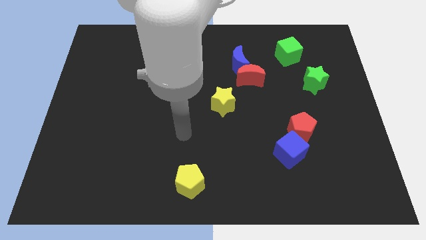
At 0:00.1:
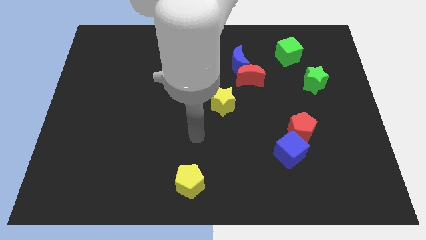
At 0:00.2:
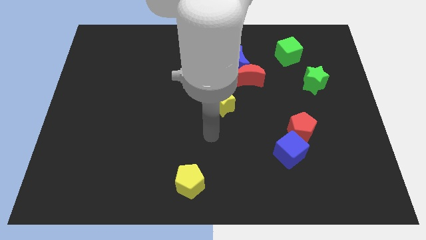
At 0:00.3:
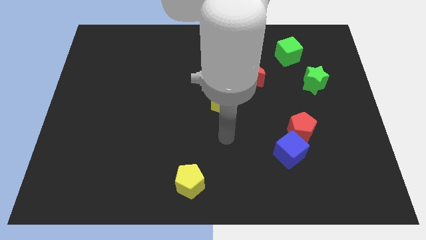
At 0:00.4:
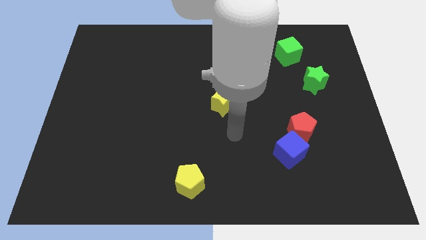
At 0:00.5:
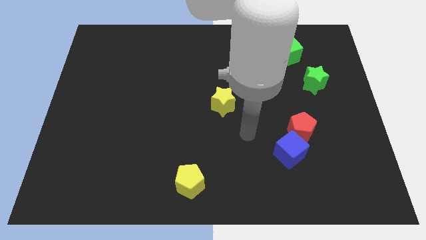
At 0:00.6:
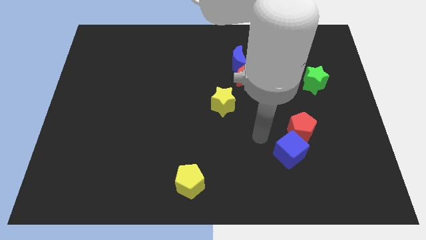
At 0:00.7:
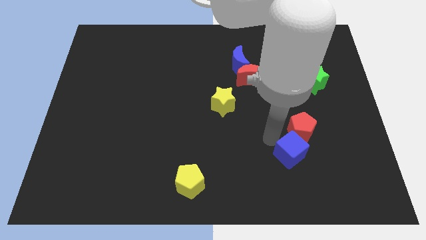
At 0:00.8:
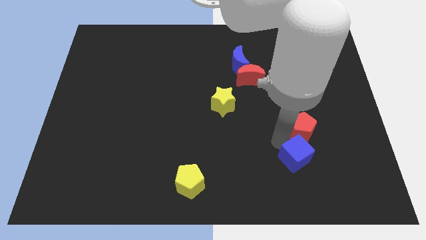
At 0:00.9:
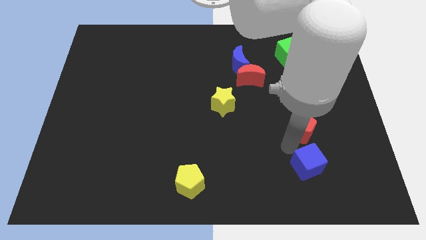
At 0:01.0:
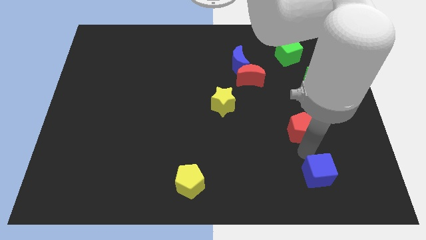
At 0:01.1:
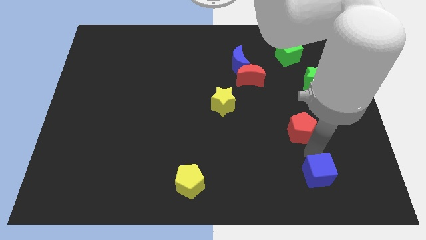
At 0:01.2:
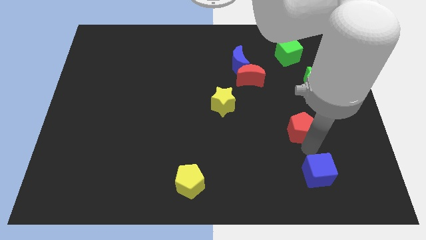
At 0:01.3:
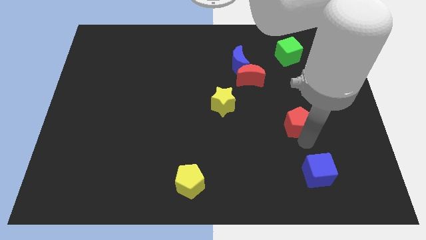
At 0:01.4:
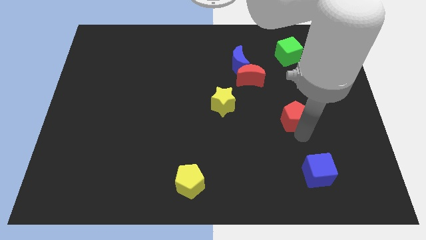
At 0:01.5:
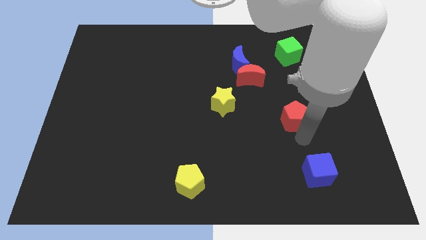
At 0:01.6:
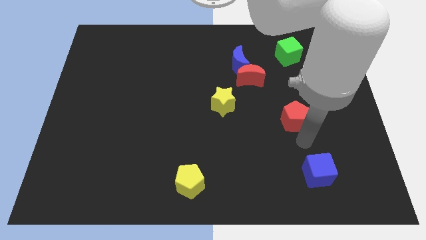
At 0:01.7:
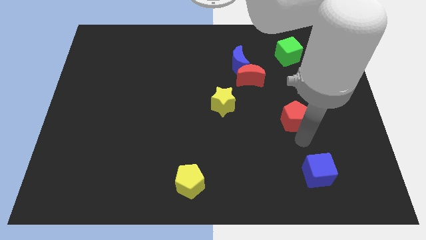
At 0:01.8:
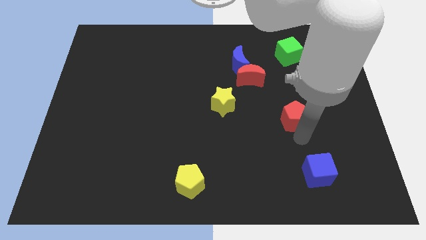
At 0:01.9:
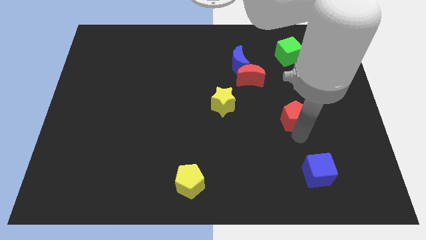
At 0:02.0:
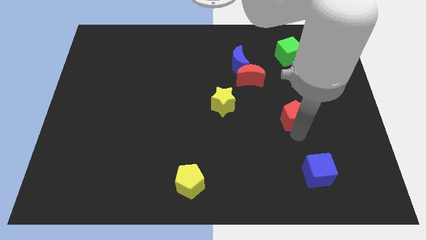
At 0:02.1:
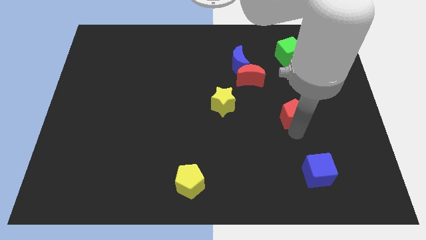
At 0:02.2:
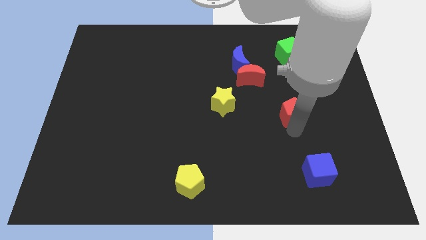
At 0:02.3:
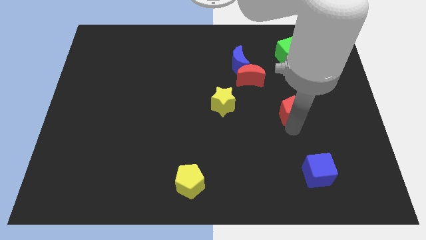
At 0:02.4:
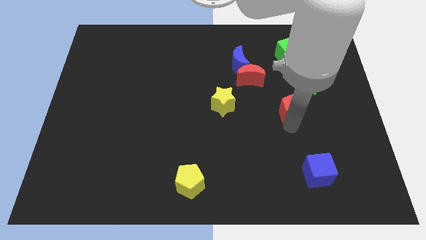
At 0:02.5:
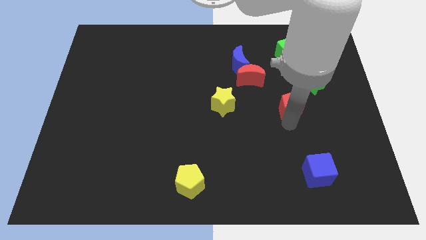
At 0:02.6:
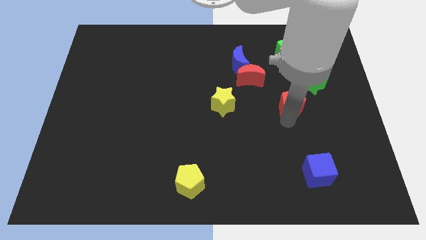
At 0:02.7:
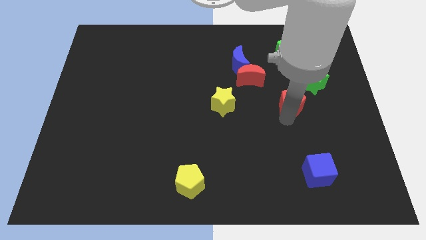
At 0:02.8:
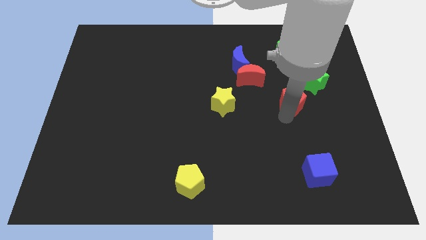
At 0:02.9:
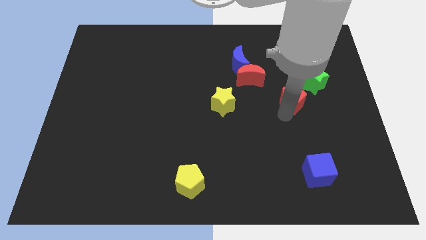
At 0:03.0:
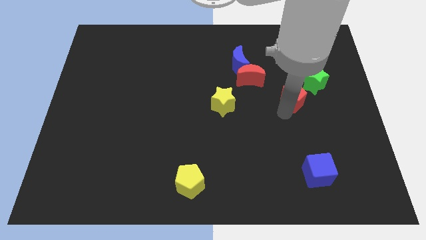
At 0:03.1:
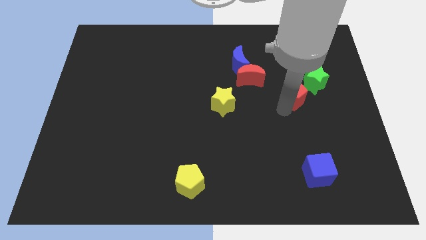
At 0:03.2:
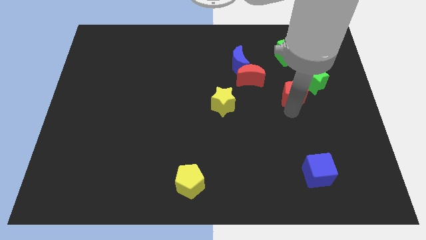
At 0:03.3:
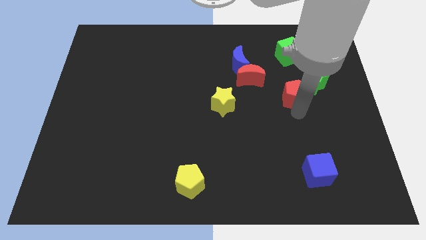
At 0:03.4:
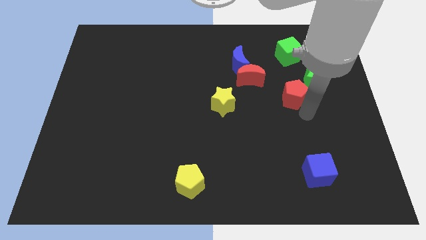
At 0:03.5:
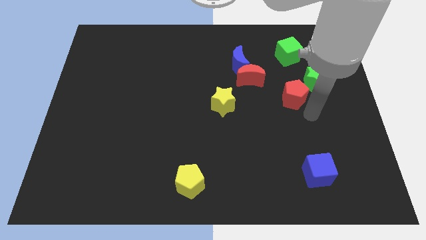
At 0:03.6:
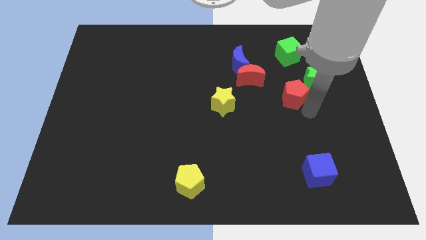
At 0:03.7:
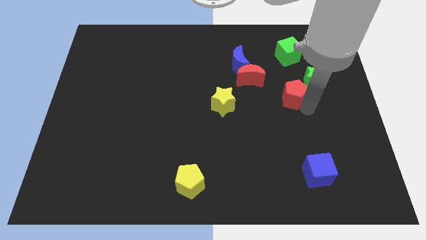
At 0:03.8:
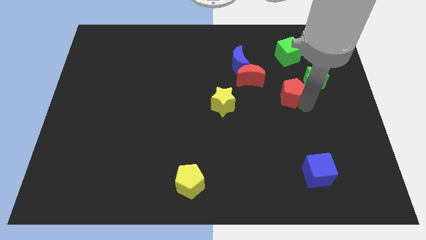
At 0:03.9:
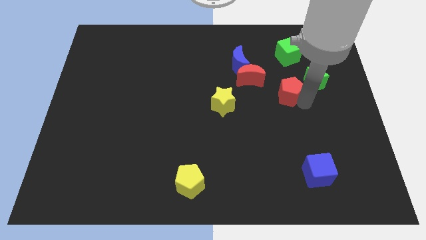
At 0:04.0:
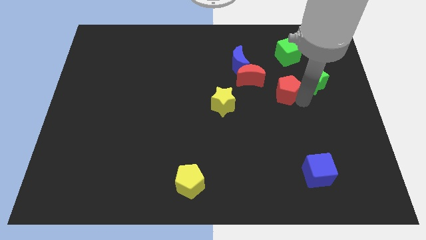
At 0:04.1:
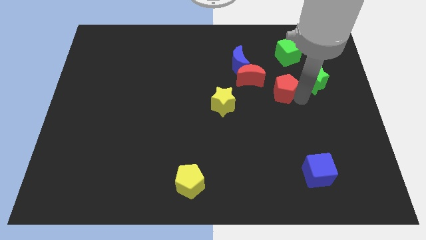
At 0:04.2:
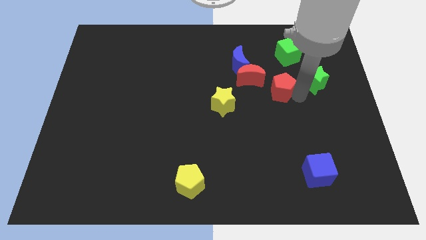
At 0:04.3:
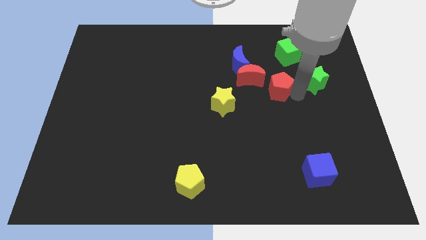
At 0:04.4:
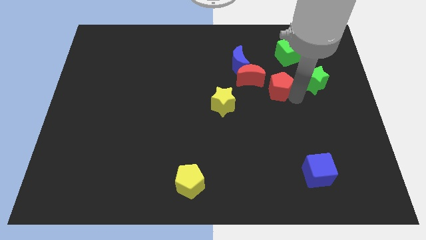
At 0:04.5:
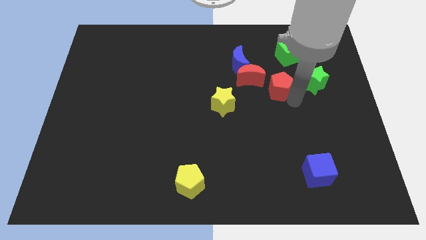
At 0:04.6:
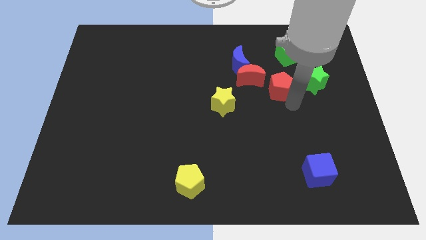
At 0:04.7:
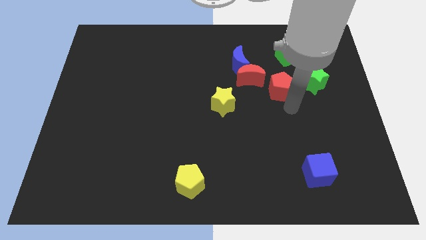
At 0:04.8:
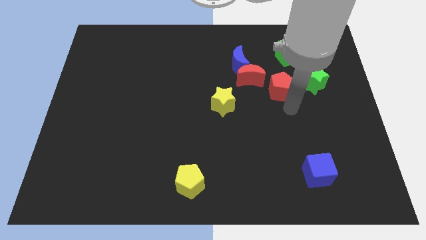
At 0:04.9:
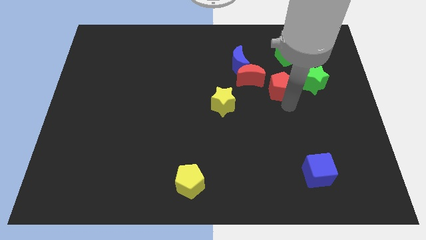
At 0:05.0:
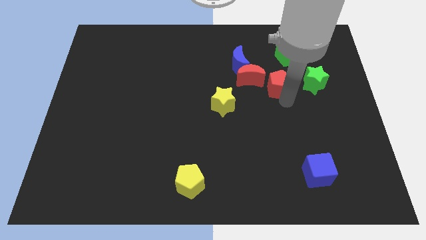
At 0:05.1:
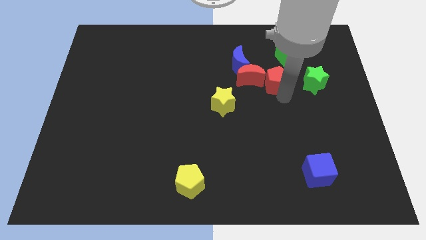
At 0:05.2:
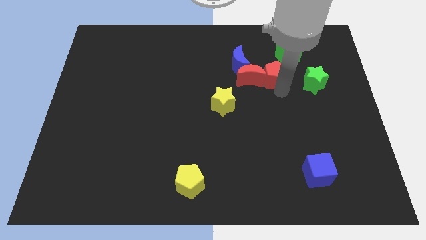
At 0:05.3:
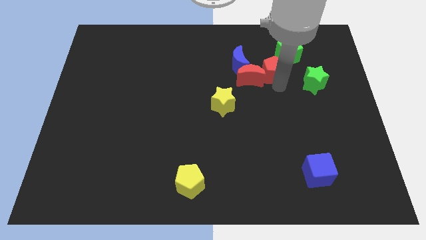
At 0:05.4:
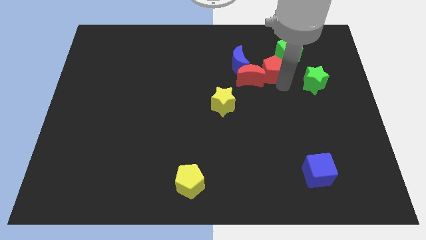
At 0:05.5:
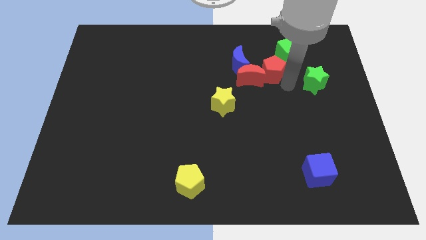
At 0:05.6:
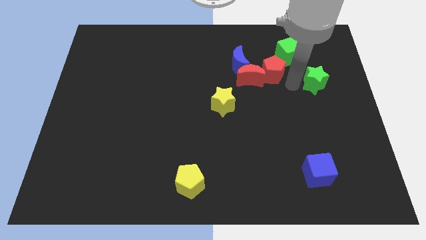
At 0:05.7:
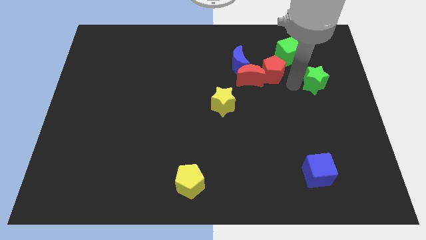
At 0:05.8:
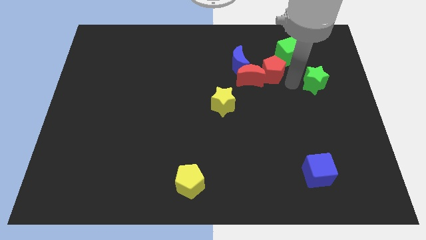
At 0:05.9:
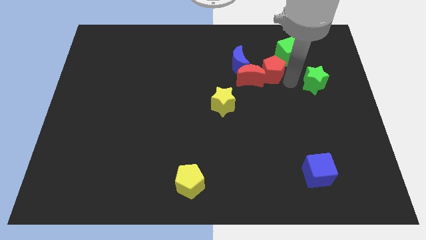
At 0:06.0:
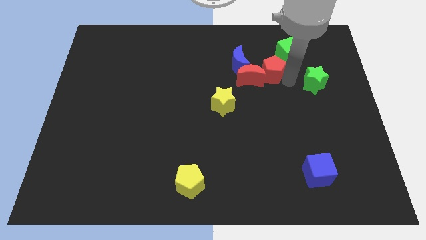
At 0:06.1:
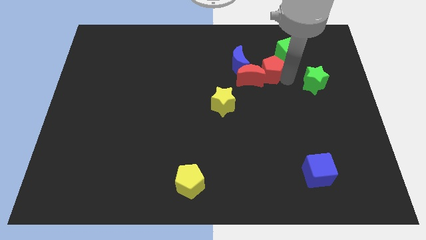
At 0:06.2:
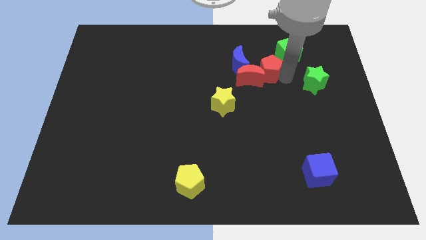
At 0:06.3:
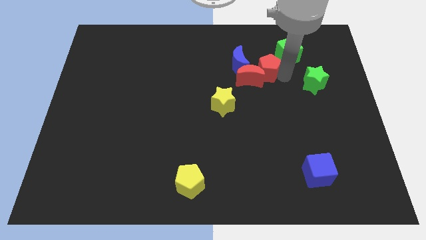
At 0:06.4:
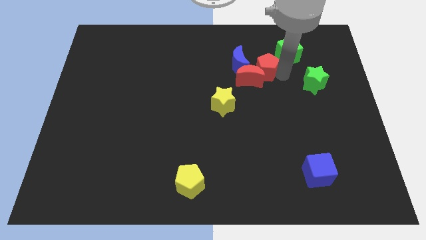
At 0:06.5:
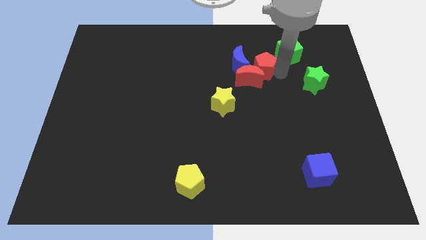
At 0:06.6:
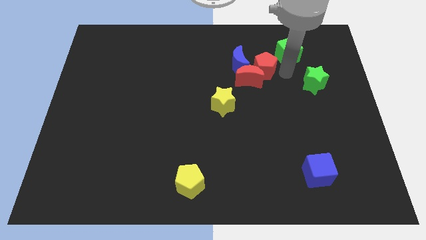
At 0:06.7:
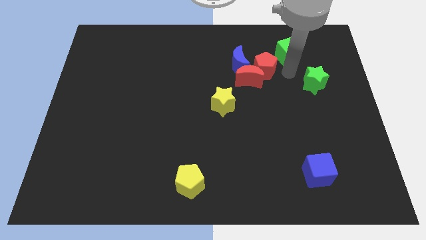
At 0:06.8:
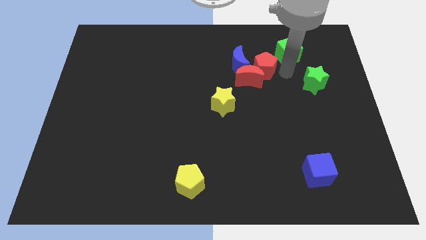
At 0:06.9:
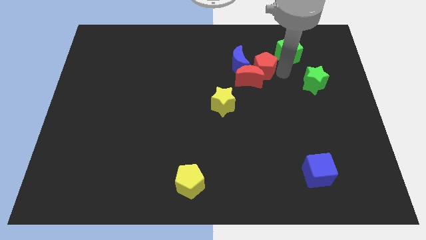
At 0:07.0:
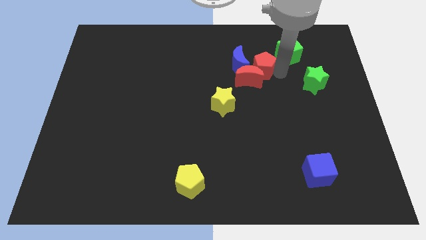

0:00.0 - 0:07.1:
push the red pentagon close to the blue moon

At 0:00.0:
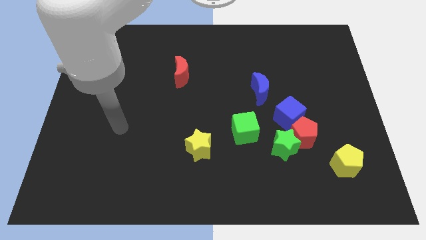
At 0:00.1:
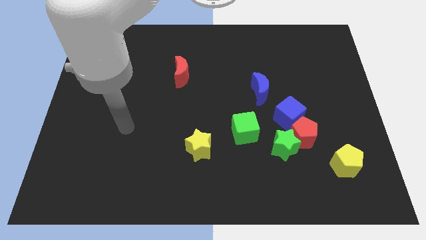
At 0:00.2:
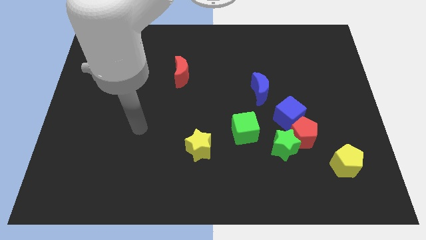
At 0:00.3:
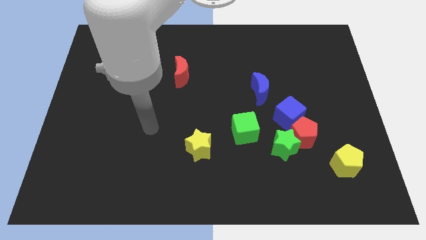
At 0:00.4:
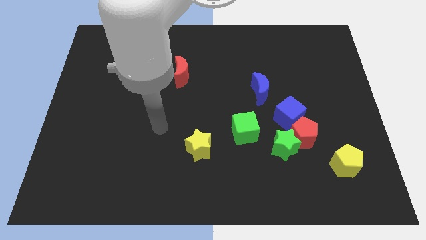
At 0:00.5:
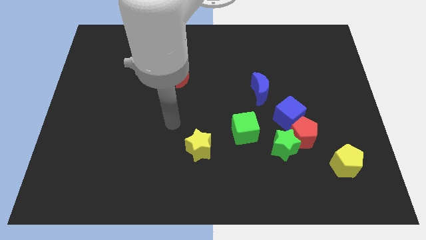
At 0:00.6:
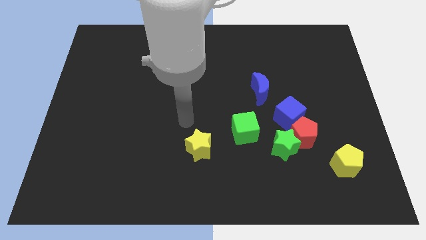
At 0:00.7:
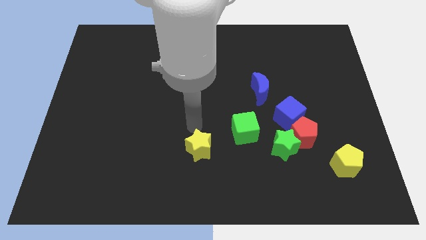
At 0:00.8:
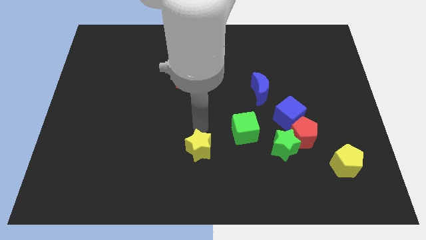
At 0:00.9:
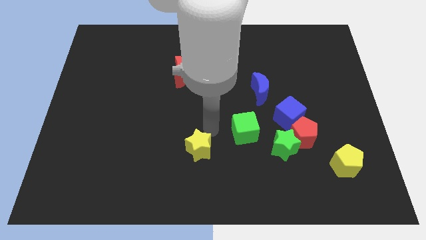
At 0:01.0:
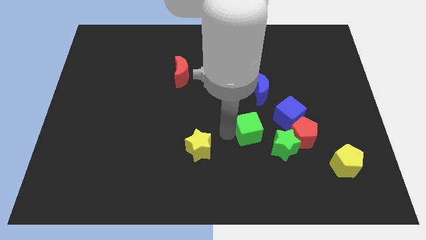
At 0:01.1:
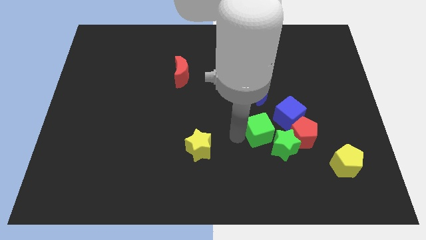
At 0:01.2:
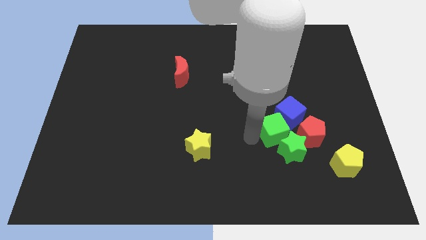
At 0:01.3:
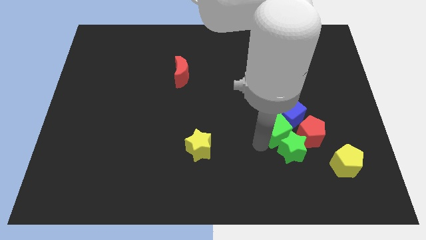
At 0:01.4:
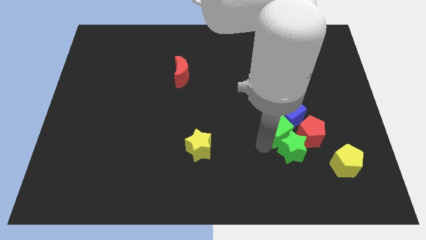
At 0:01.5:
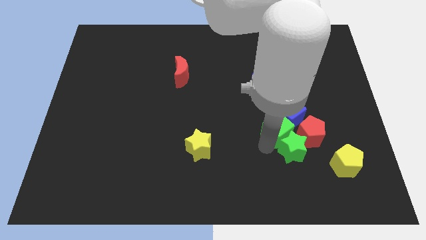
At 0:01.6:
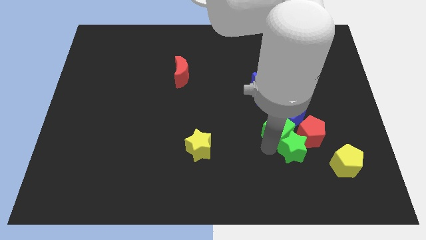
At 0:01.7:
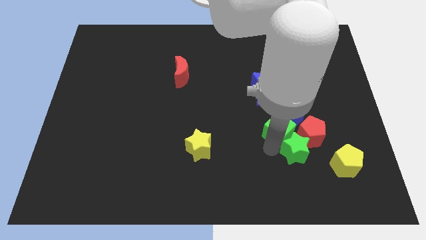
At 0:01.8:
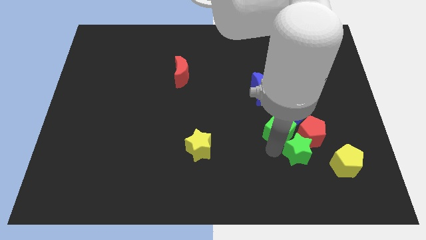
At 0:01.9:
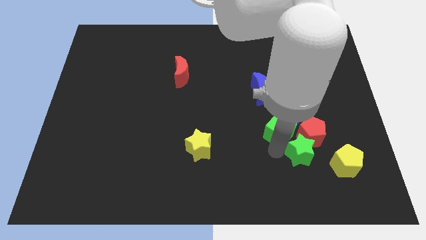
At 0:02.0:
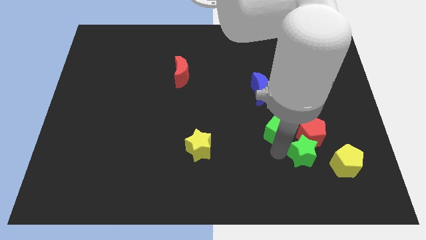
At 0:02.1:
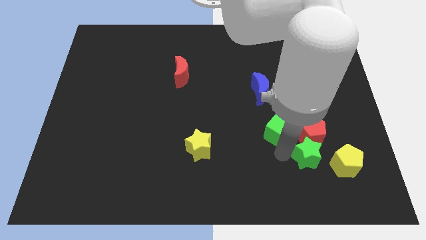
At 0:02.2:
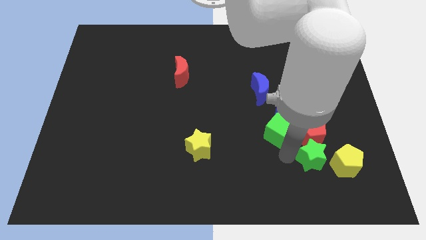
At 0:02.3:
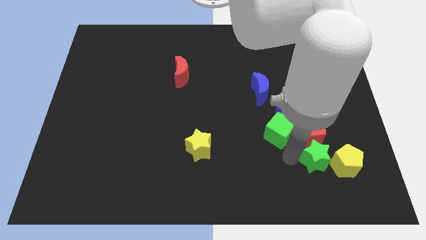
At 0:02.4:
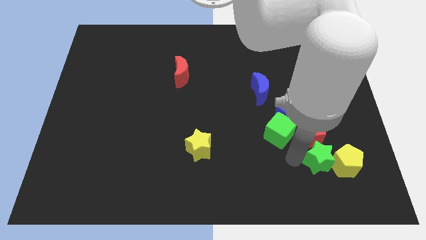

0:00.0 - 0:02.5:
push the green star towards the yellow pentagon
